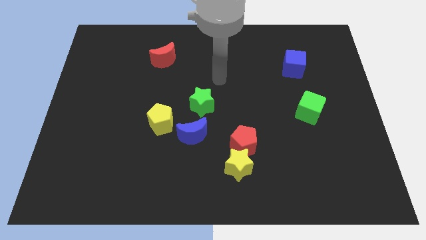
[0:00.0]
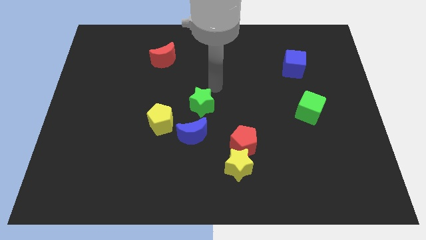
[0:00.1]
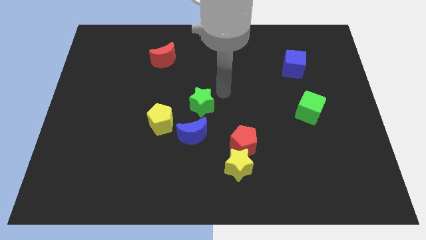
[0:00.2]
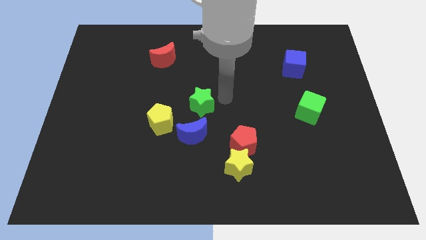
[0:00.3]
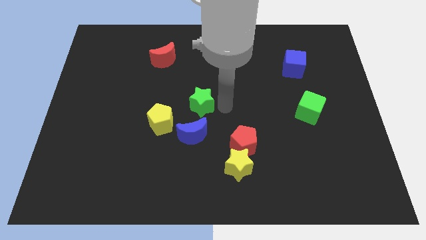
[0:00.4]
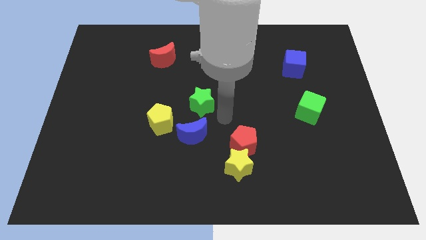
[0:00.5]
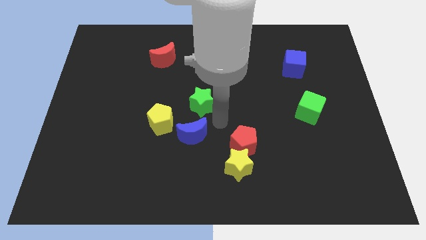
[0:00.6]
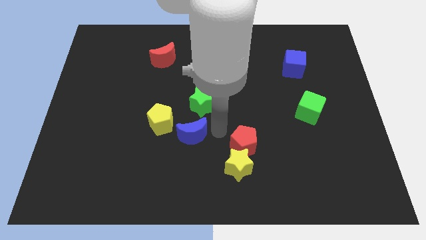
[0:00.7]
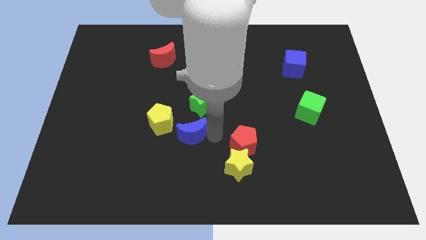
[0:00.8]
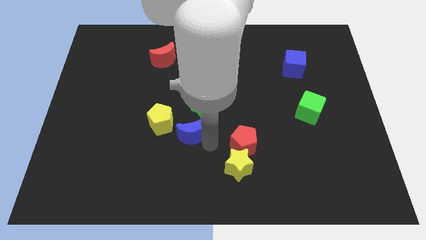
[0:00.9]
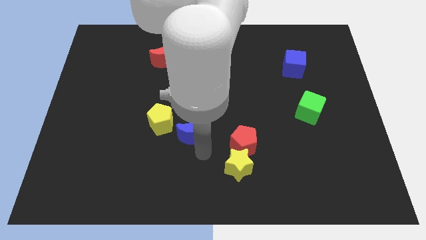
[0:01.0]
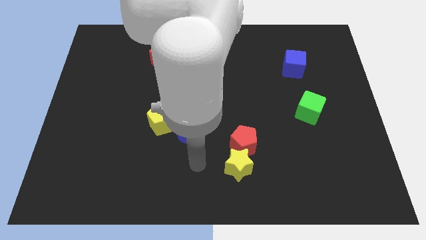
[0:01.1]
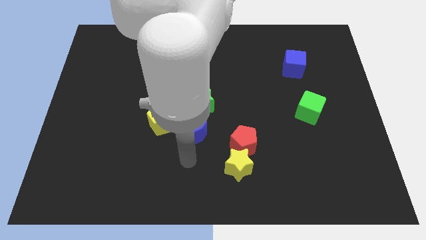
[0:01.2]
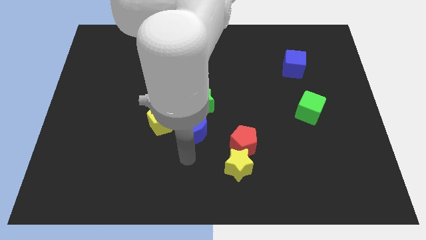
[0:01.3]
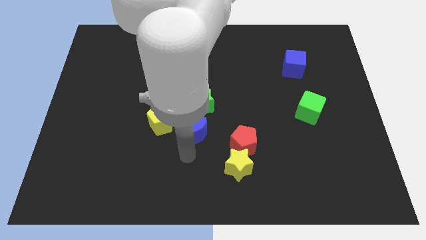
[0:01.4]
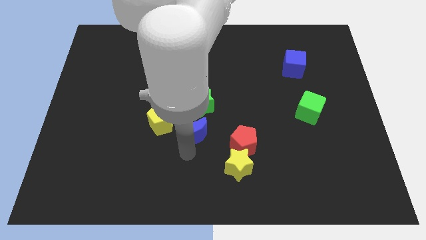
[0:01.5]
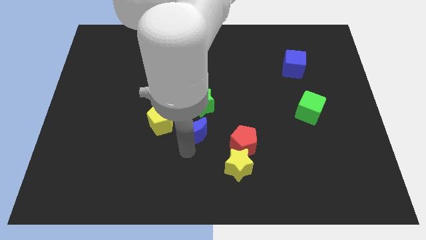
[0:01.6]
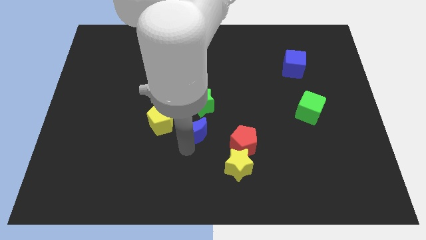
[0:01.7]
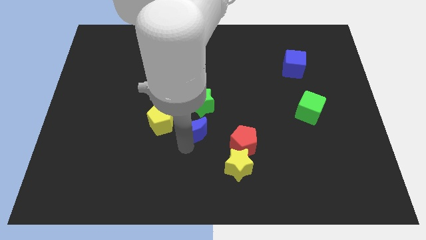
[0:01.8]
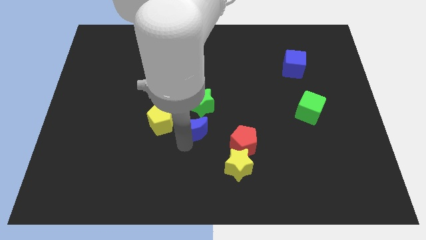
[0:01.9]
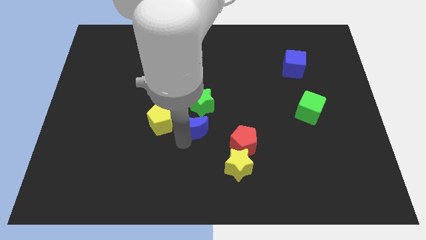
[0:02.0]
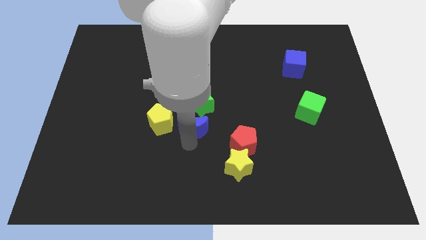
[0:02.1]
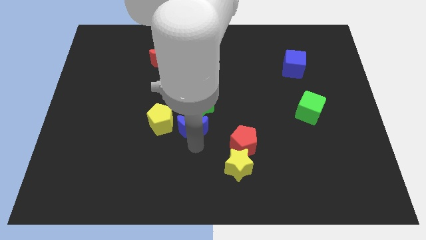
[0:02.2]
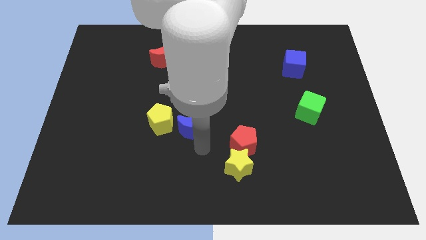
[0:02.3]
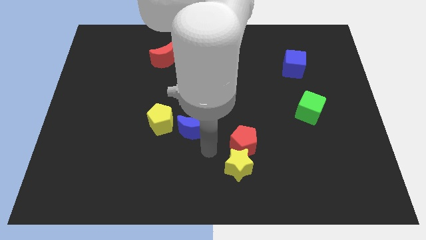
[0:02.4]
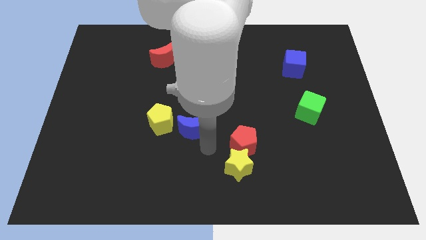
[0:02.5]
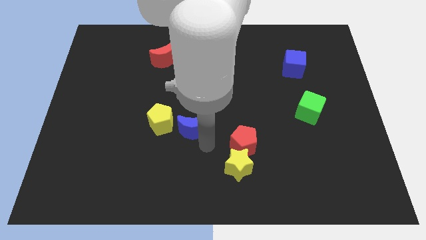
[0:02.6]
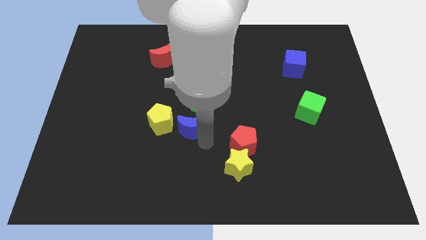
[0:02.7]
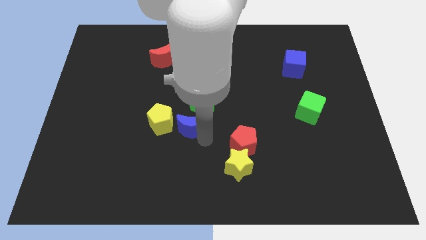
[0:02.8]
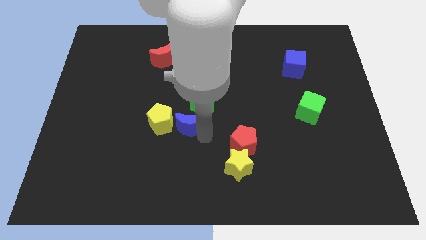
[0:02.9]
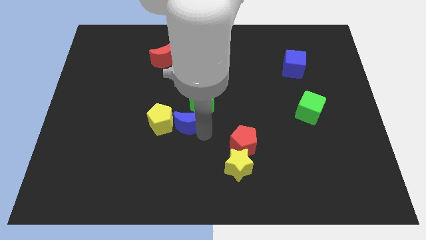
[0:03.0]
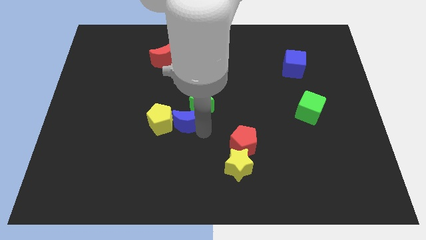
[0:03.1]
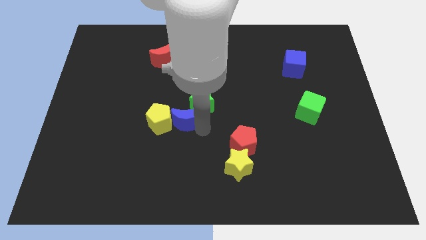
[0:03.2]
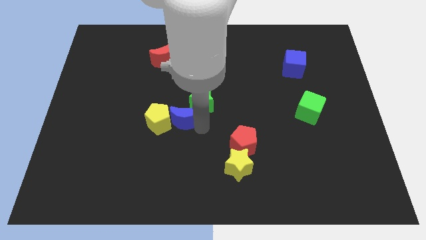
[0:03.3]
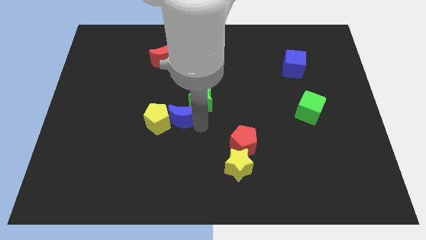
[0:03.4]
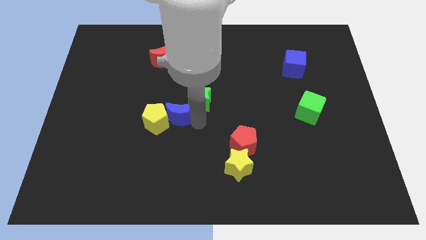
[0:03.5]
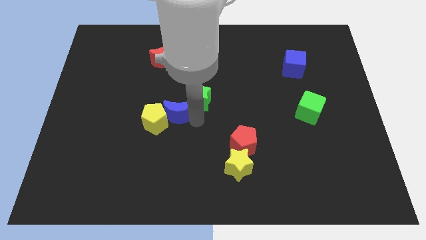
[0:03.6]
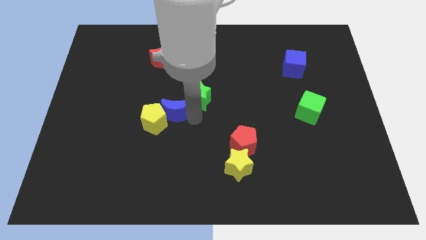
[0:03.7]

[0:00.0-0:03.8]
slide the blue moon a little bit up and to the left diagonally

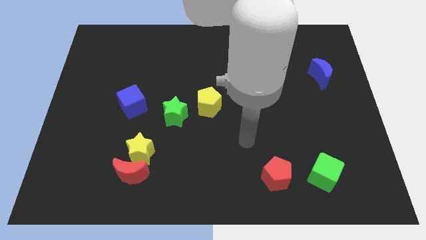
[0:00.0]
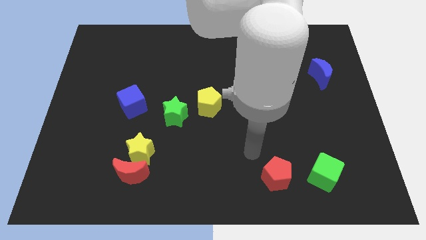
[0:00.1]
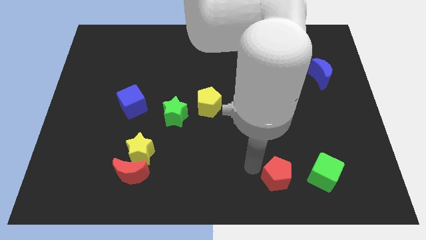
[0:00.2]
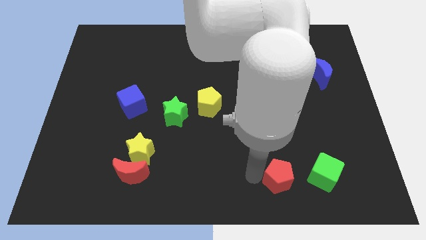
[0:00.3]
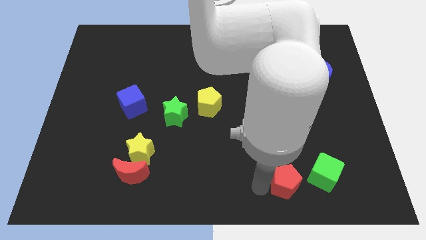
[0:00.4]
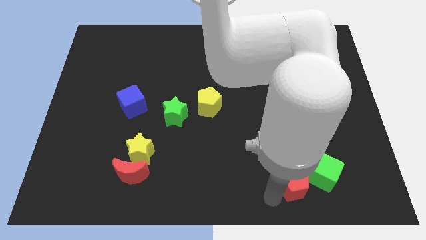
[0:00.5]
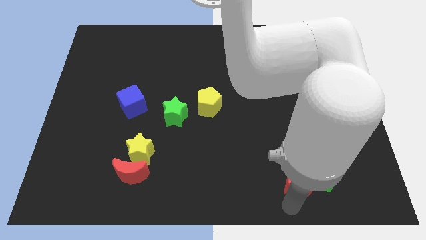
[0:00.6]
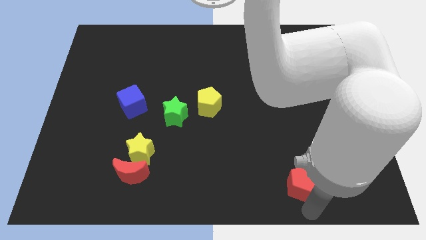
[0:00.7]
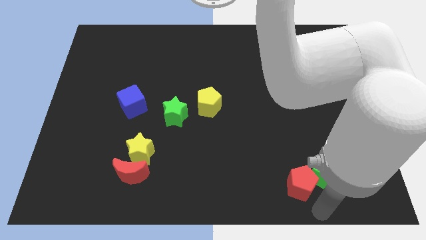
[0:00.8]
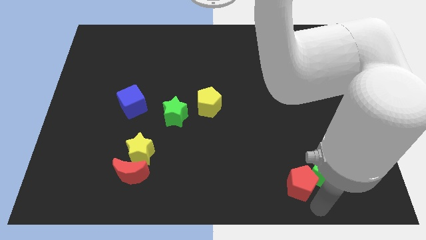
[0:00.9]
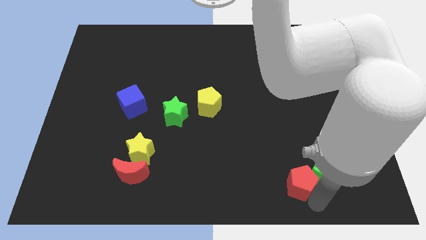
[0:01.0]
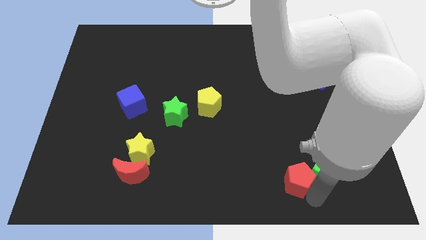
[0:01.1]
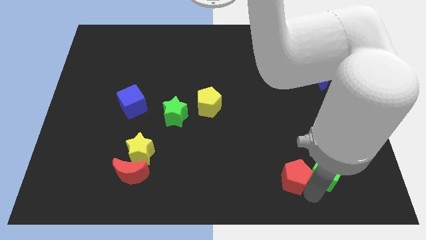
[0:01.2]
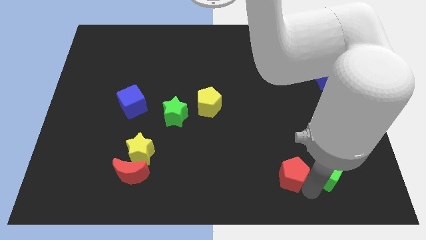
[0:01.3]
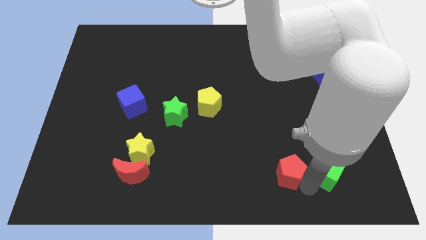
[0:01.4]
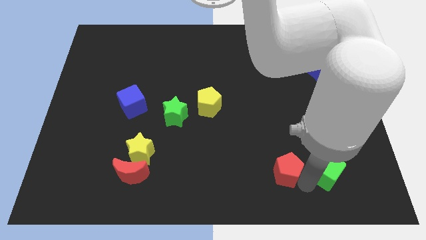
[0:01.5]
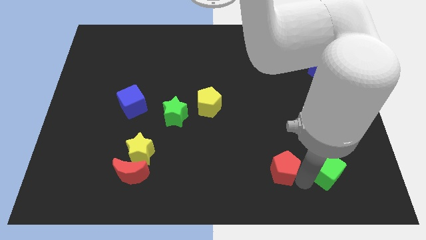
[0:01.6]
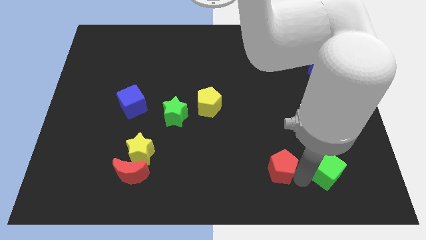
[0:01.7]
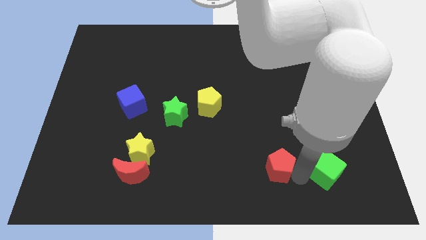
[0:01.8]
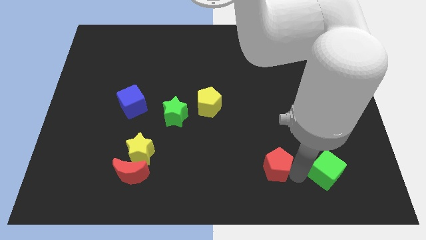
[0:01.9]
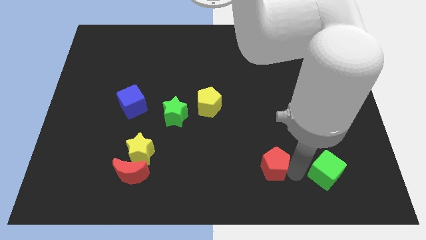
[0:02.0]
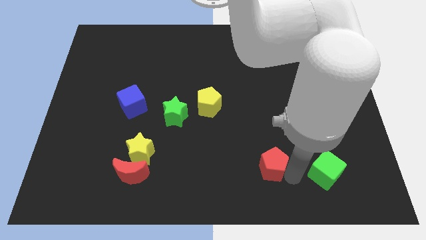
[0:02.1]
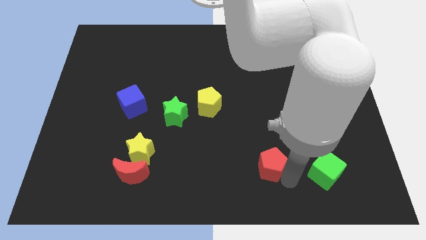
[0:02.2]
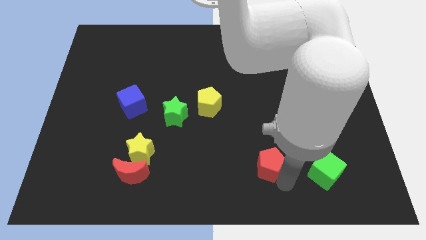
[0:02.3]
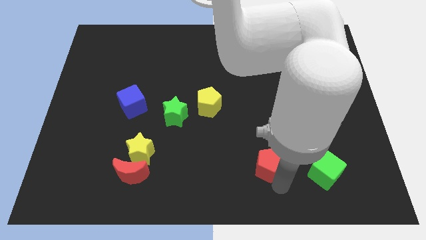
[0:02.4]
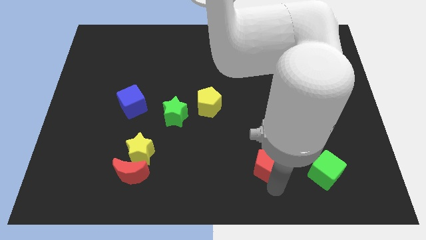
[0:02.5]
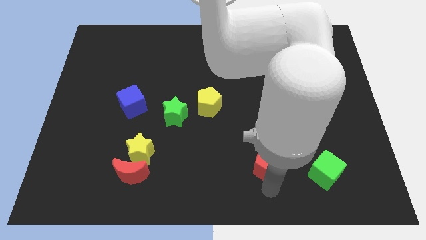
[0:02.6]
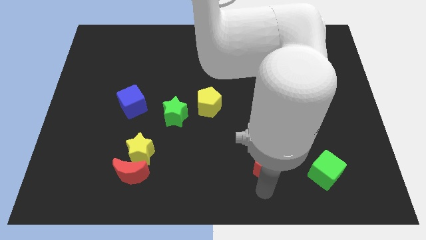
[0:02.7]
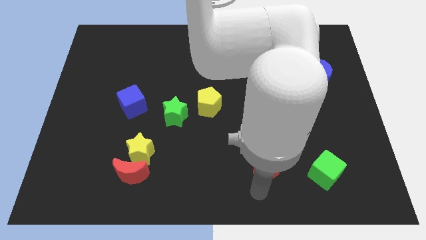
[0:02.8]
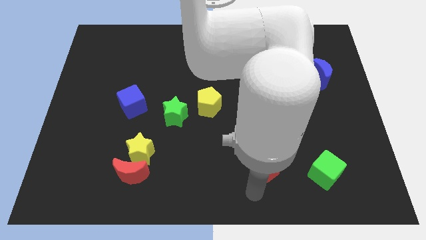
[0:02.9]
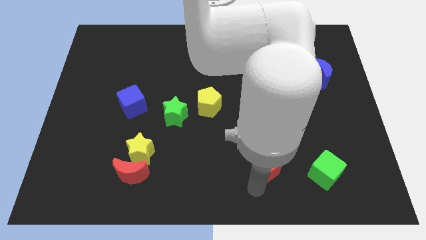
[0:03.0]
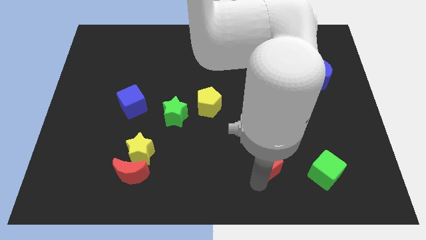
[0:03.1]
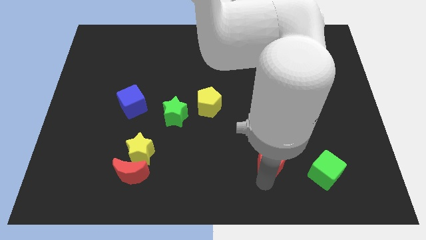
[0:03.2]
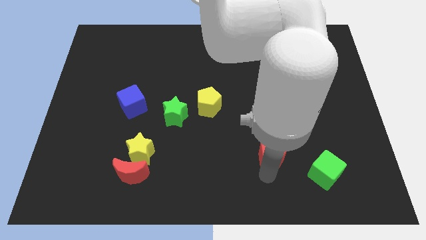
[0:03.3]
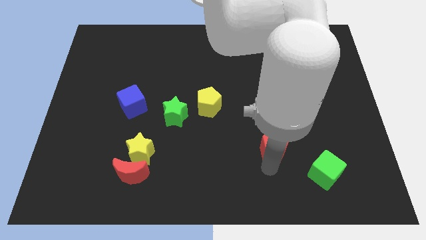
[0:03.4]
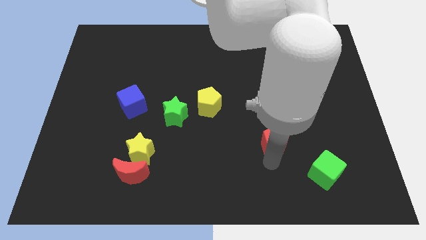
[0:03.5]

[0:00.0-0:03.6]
slightly push the red pentagon upwards

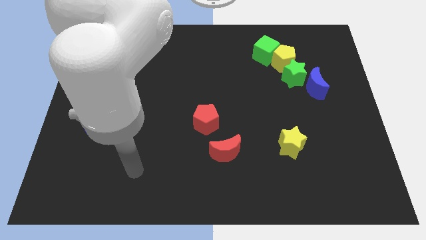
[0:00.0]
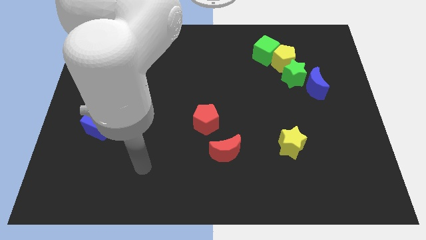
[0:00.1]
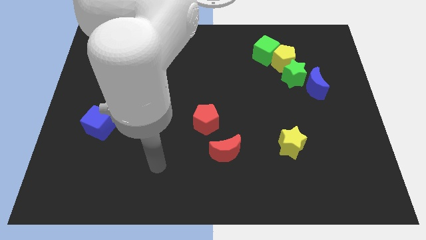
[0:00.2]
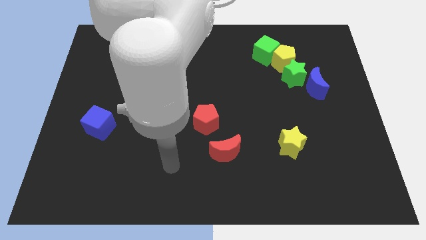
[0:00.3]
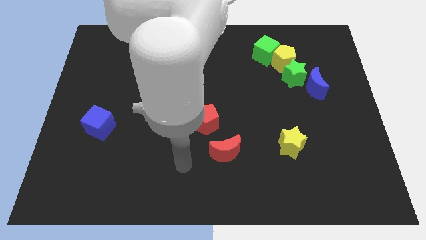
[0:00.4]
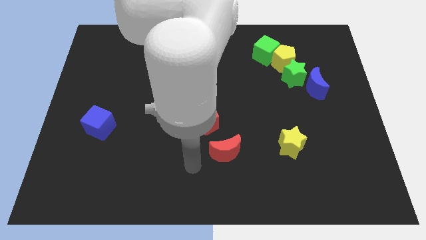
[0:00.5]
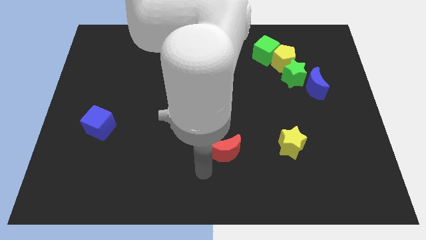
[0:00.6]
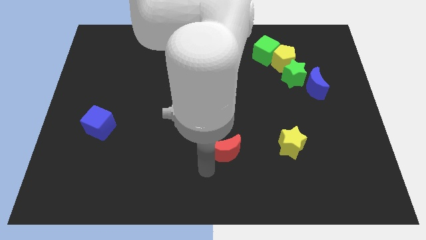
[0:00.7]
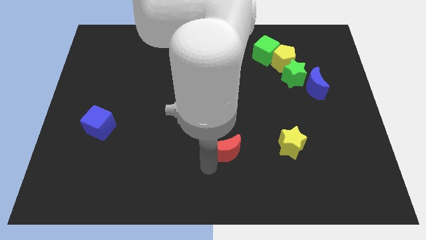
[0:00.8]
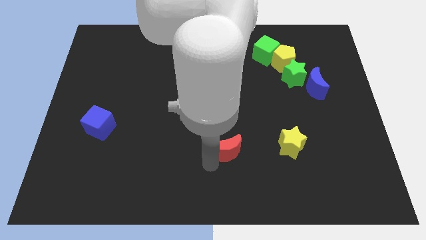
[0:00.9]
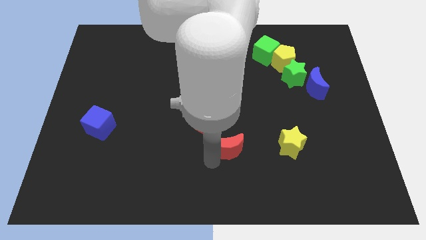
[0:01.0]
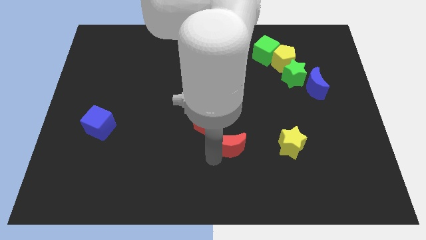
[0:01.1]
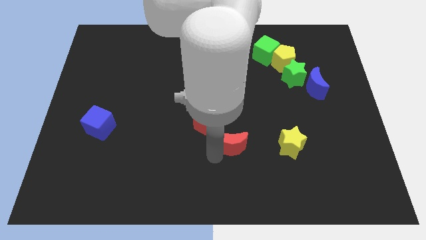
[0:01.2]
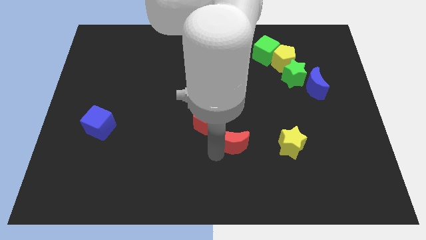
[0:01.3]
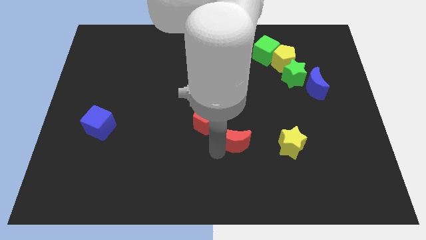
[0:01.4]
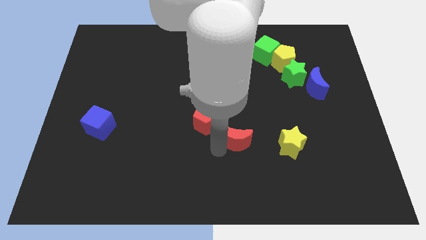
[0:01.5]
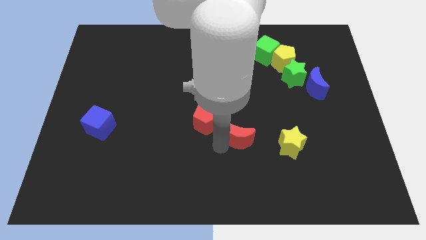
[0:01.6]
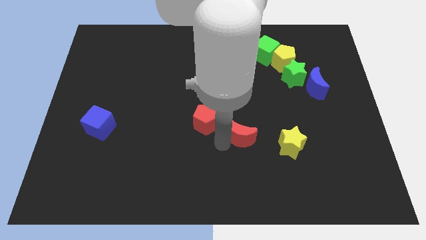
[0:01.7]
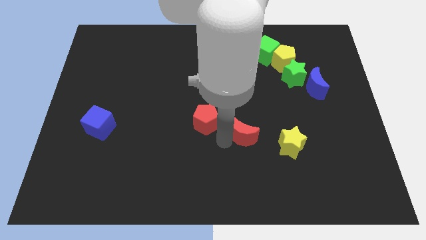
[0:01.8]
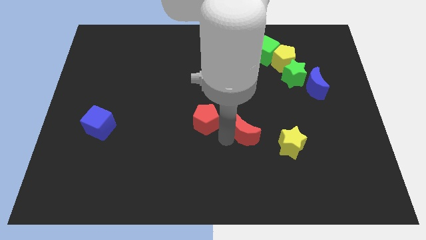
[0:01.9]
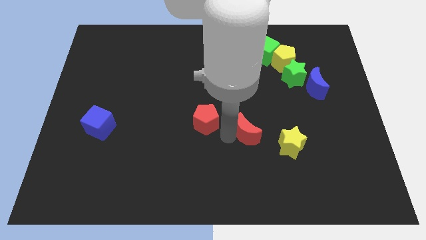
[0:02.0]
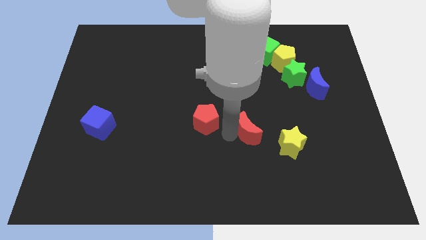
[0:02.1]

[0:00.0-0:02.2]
slightly move the red moon upwards and then right
